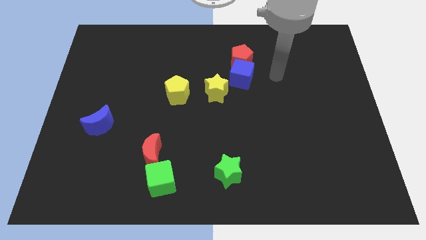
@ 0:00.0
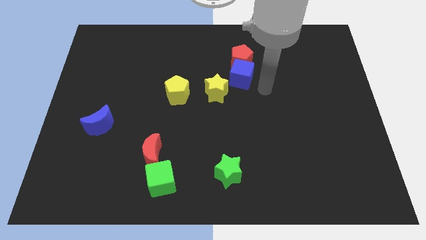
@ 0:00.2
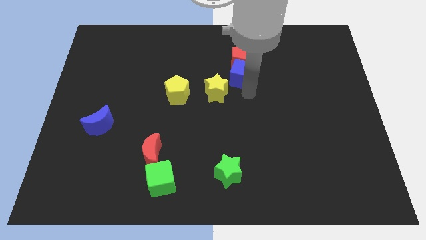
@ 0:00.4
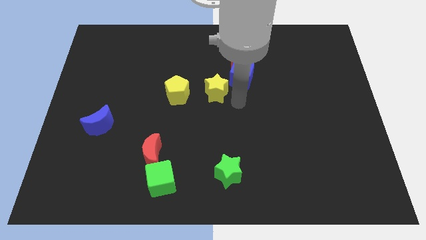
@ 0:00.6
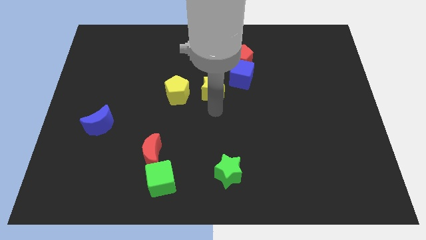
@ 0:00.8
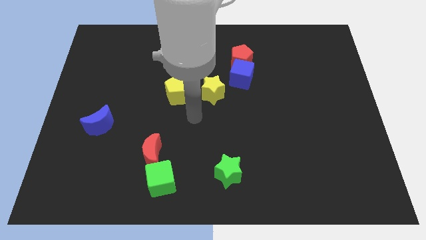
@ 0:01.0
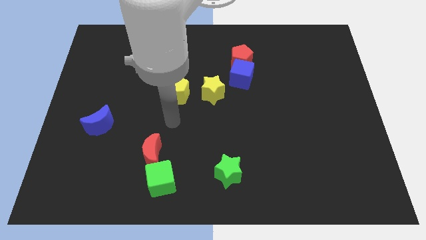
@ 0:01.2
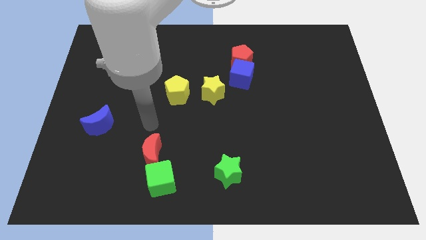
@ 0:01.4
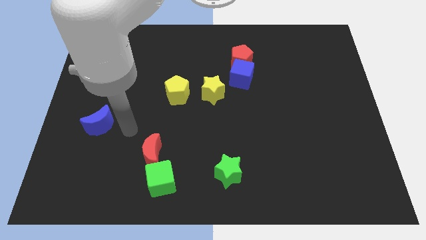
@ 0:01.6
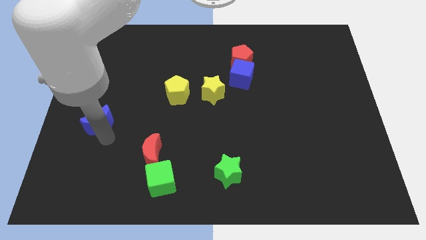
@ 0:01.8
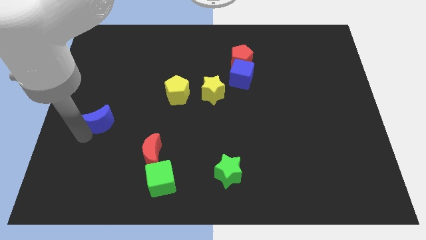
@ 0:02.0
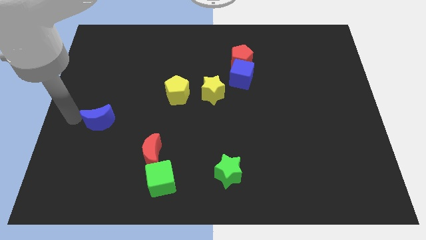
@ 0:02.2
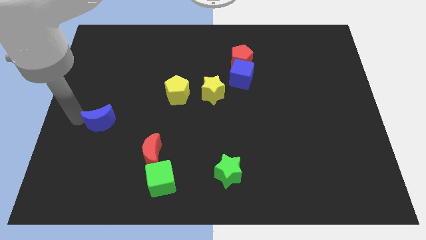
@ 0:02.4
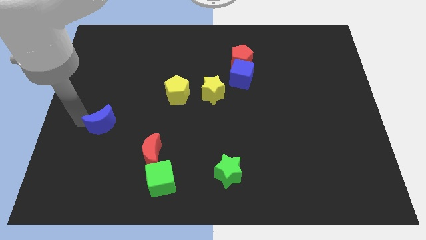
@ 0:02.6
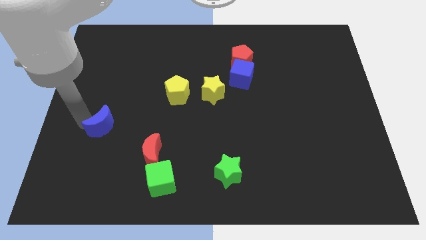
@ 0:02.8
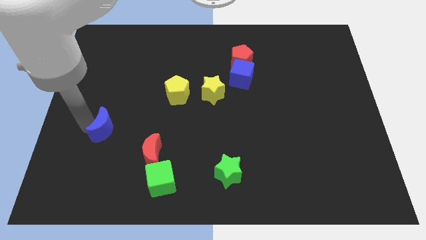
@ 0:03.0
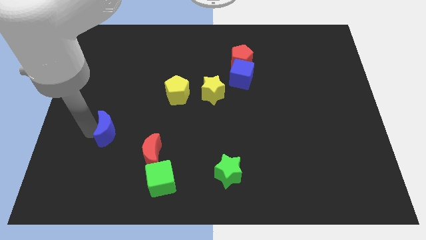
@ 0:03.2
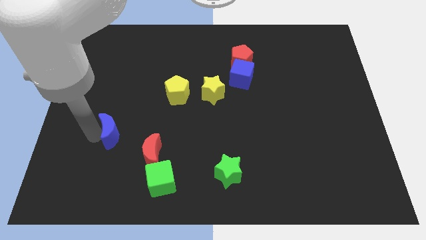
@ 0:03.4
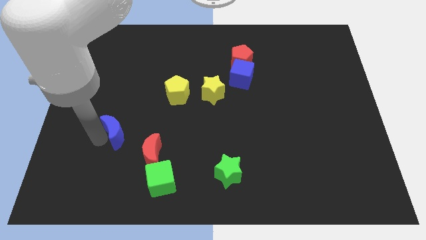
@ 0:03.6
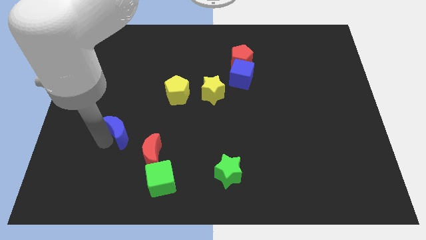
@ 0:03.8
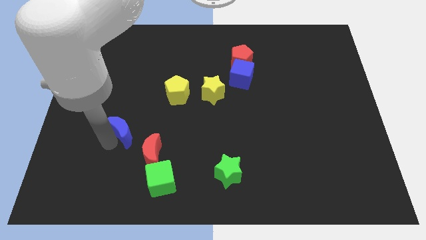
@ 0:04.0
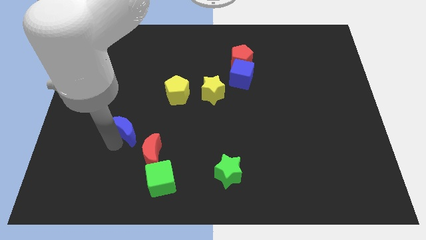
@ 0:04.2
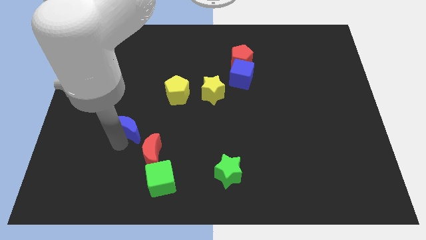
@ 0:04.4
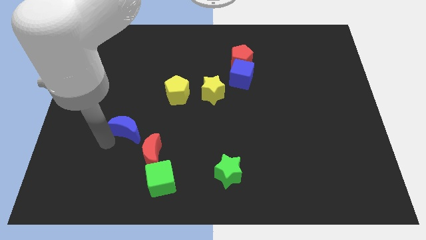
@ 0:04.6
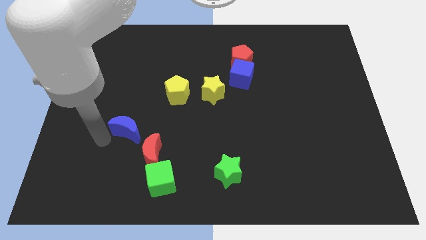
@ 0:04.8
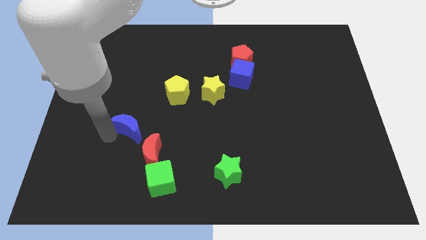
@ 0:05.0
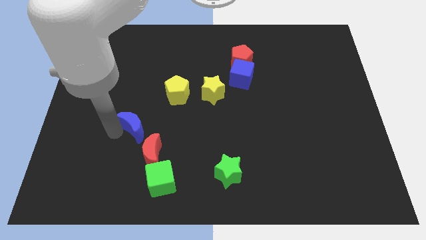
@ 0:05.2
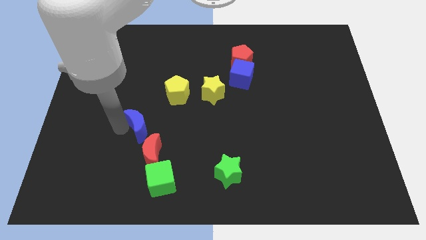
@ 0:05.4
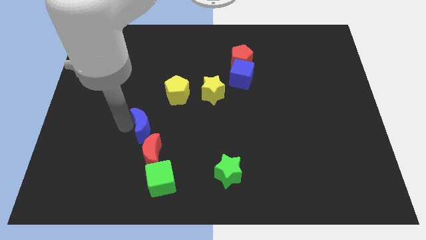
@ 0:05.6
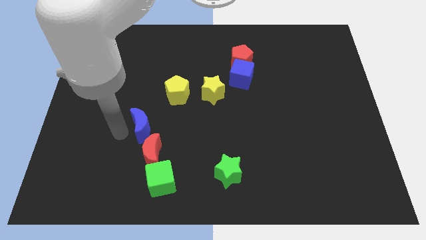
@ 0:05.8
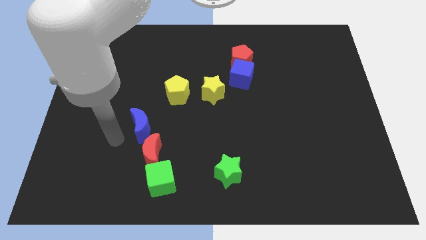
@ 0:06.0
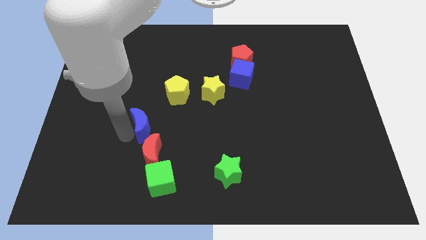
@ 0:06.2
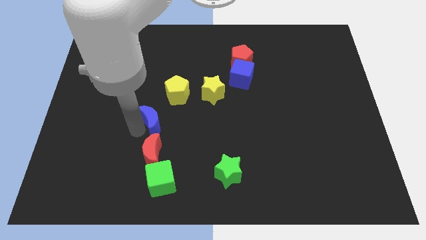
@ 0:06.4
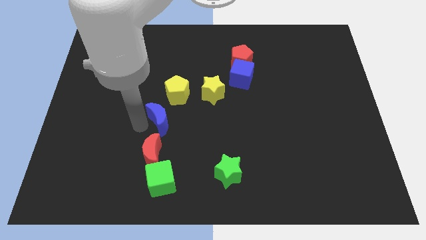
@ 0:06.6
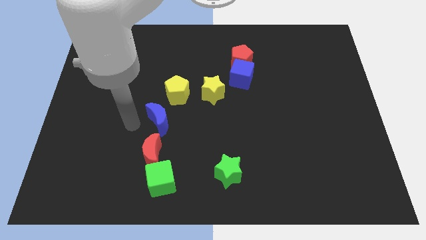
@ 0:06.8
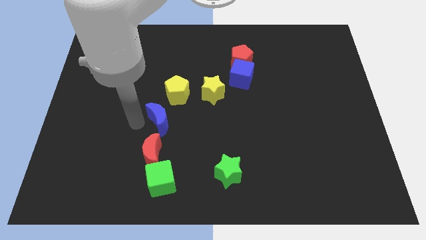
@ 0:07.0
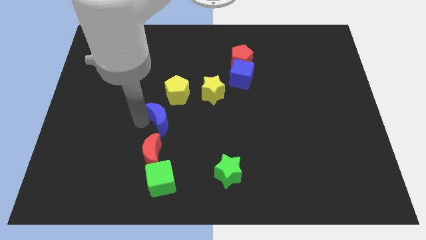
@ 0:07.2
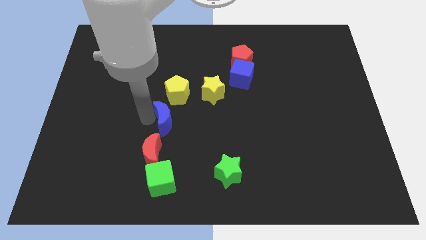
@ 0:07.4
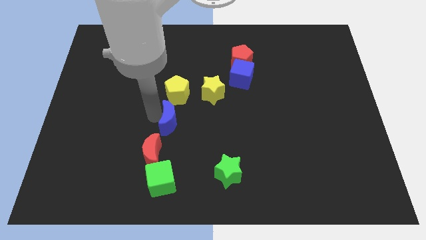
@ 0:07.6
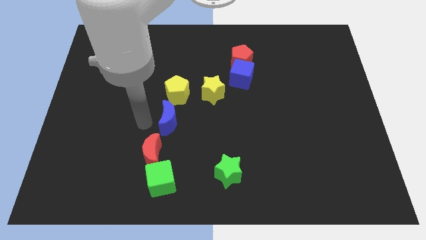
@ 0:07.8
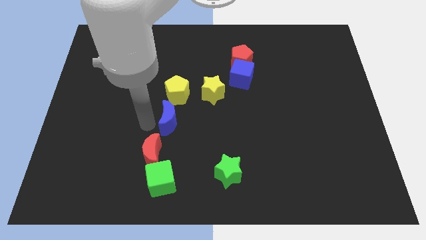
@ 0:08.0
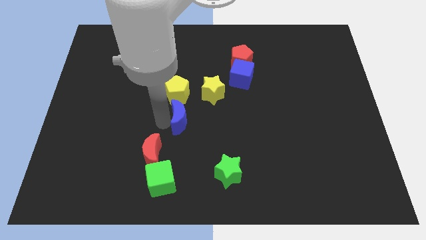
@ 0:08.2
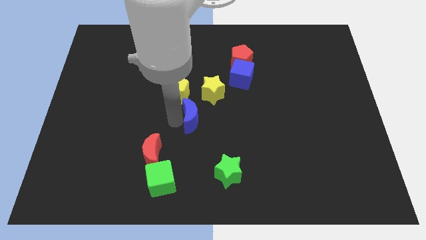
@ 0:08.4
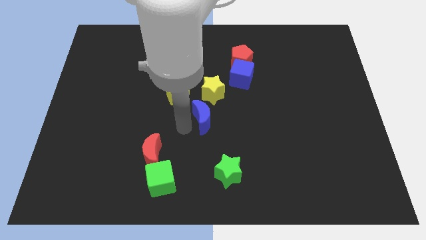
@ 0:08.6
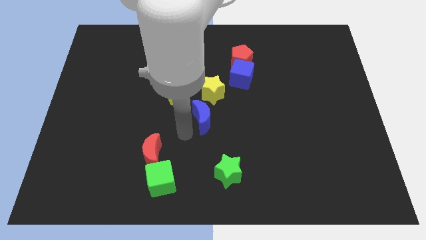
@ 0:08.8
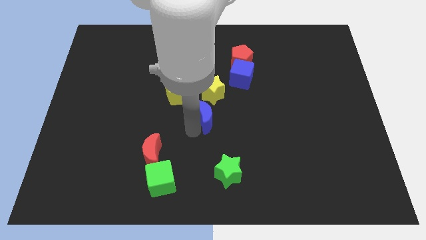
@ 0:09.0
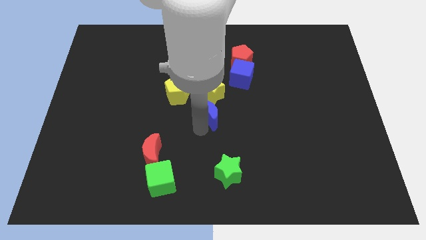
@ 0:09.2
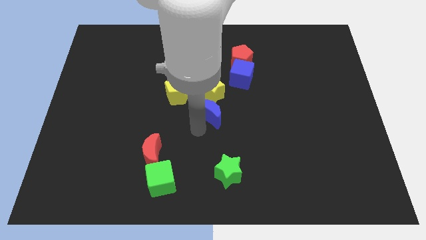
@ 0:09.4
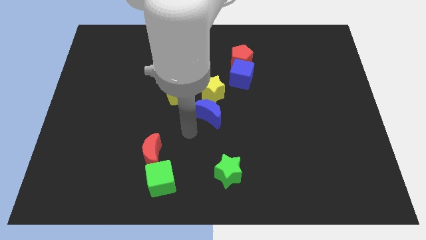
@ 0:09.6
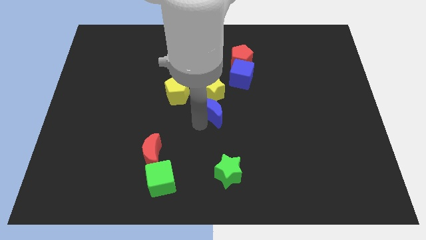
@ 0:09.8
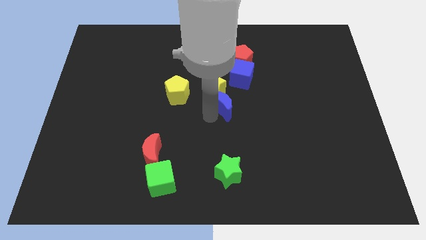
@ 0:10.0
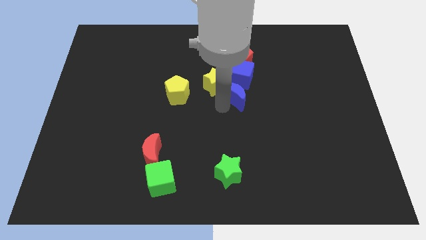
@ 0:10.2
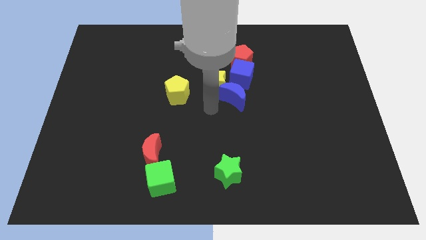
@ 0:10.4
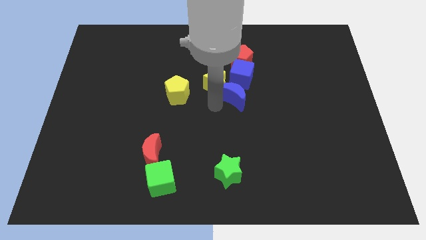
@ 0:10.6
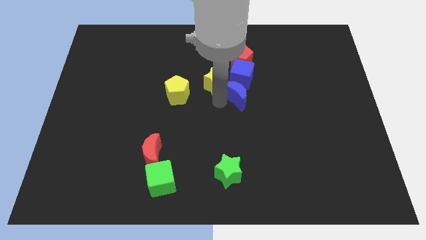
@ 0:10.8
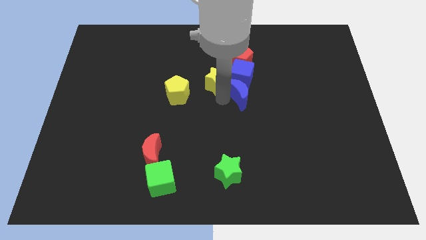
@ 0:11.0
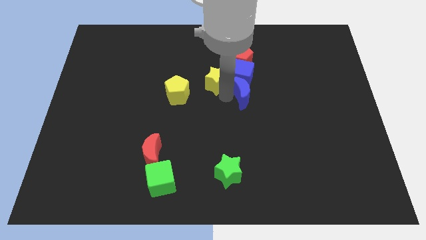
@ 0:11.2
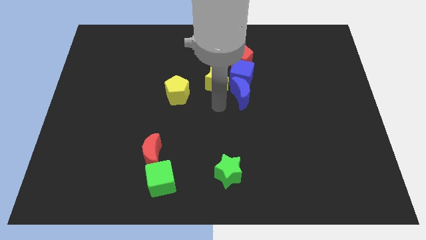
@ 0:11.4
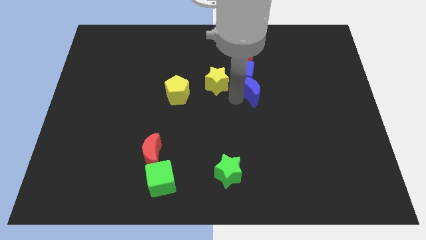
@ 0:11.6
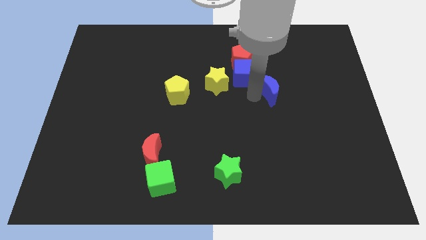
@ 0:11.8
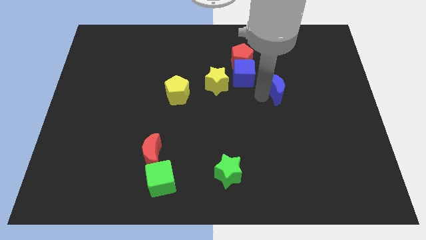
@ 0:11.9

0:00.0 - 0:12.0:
push the blue moon right of the blue cube

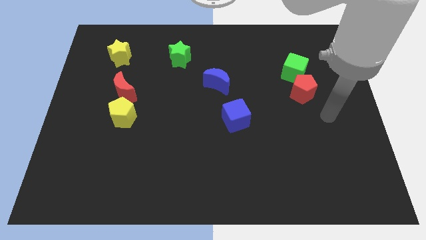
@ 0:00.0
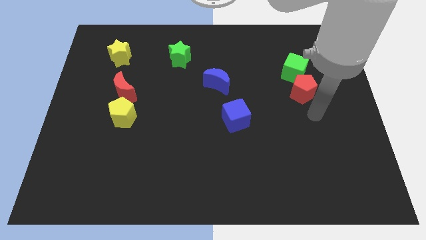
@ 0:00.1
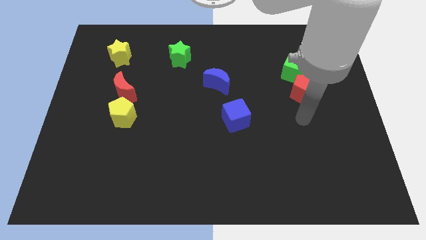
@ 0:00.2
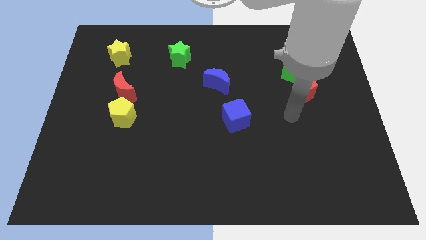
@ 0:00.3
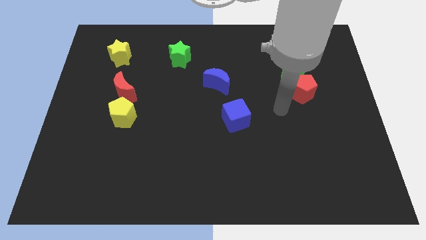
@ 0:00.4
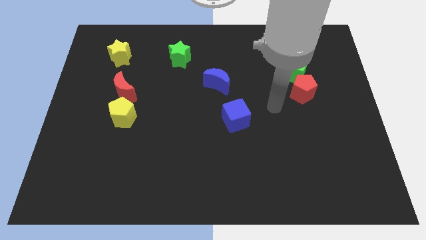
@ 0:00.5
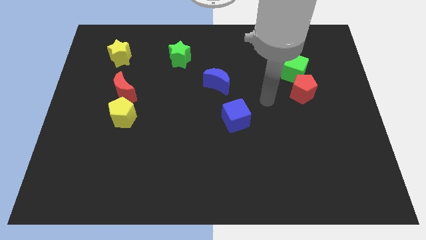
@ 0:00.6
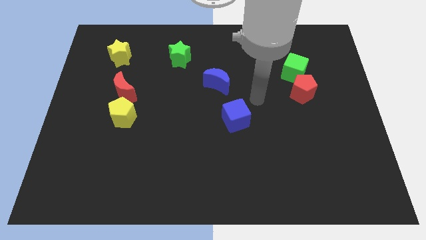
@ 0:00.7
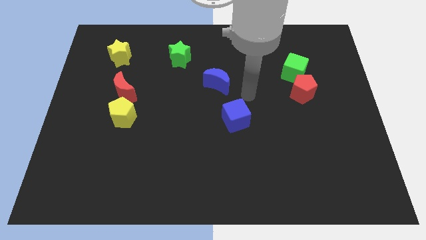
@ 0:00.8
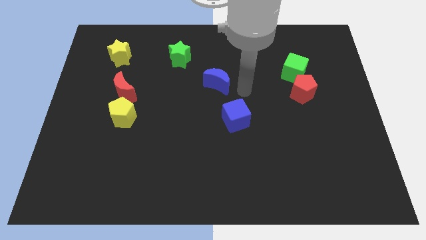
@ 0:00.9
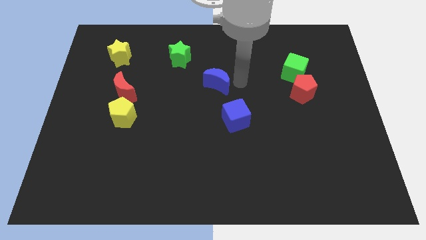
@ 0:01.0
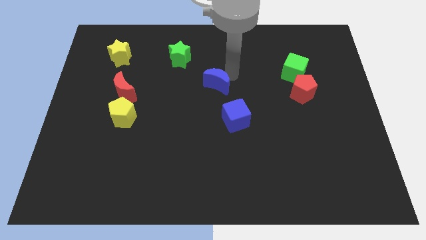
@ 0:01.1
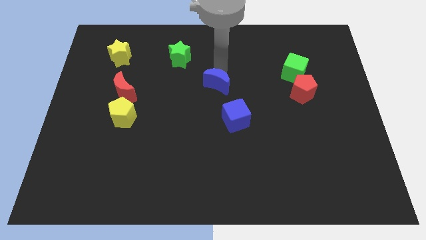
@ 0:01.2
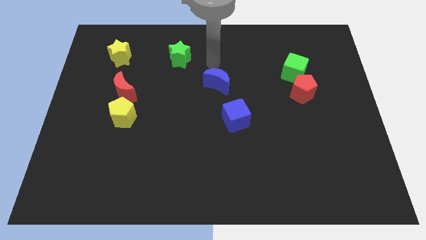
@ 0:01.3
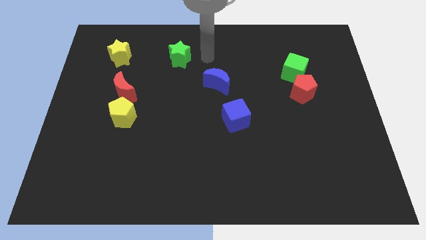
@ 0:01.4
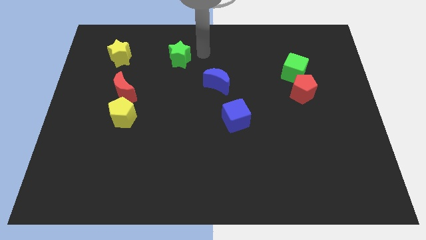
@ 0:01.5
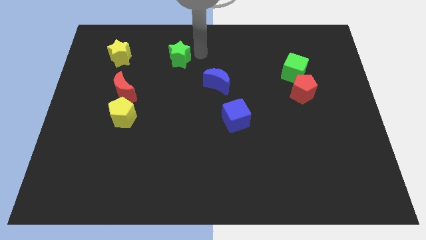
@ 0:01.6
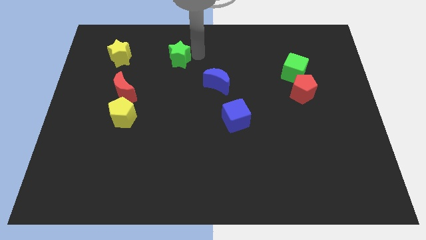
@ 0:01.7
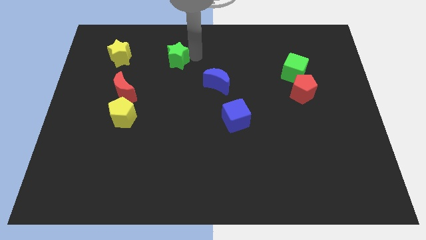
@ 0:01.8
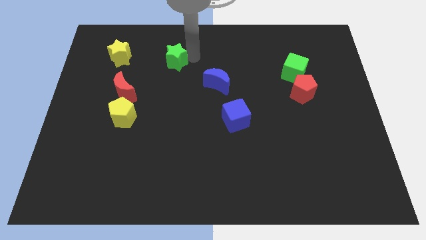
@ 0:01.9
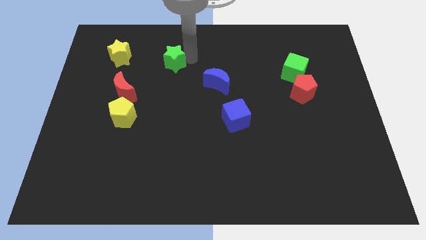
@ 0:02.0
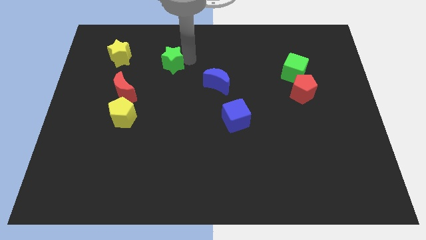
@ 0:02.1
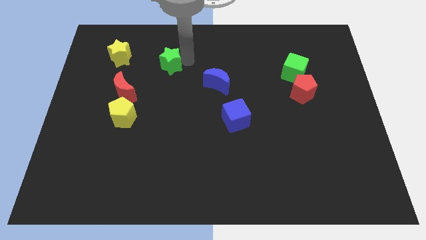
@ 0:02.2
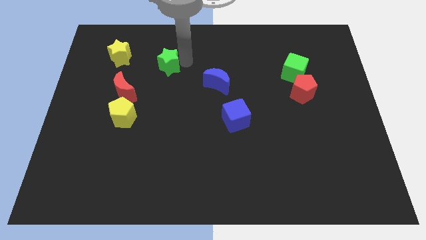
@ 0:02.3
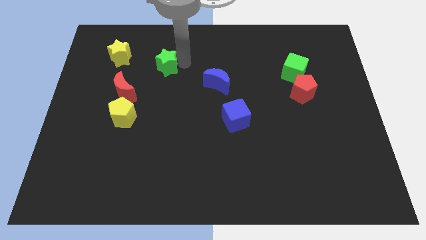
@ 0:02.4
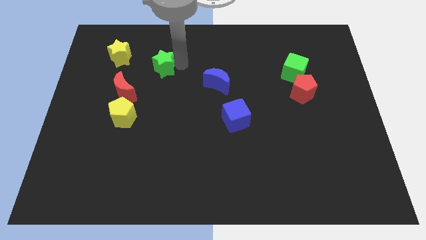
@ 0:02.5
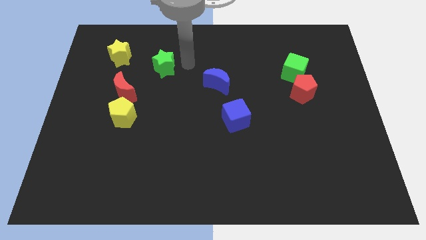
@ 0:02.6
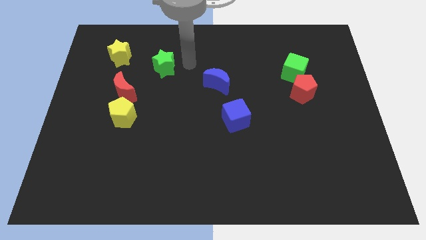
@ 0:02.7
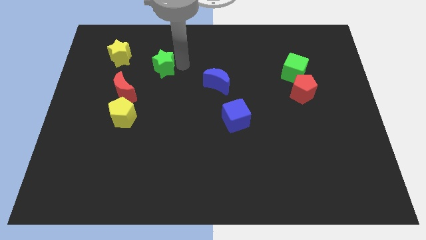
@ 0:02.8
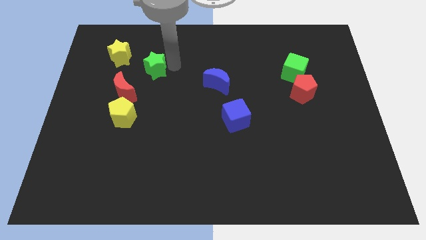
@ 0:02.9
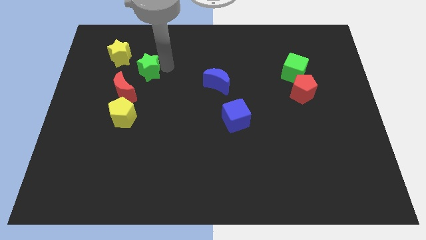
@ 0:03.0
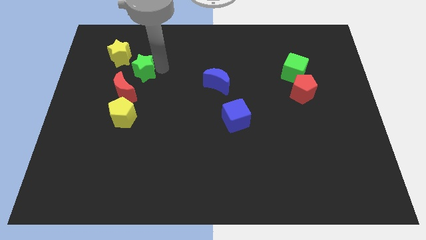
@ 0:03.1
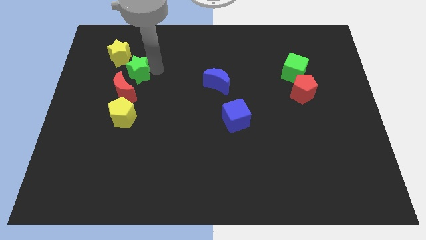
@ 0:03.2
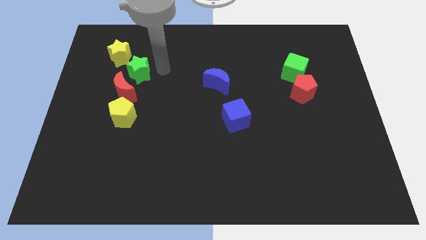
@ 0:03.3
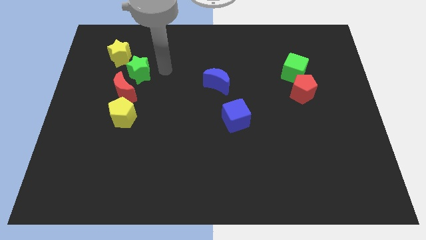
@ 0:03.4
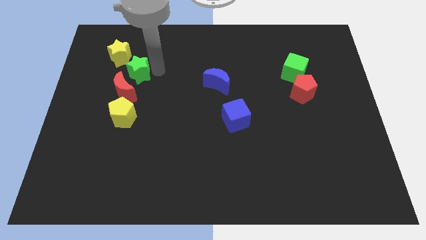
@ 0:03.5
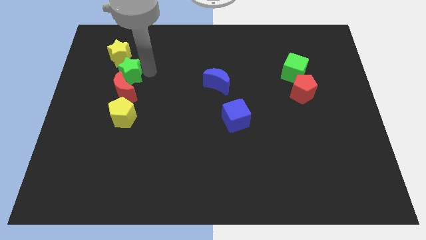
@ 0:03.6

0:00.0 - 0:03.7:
put the green star diagonally up and to the left of the red moon
